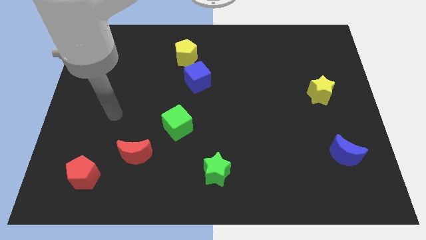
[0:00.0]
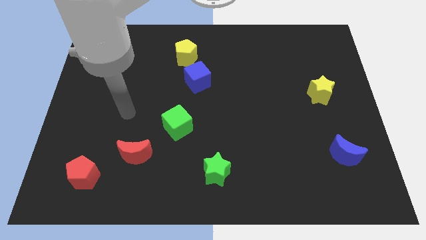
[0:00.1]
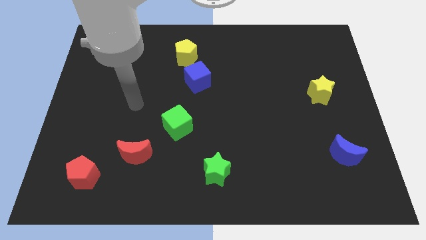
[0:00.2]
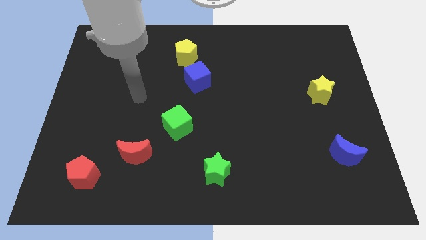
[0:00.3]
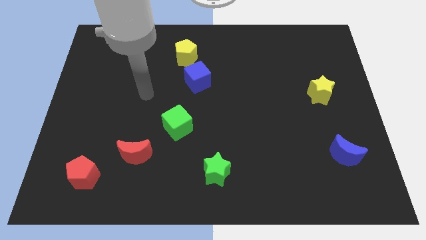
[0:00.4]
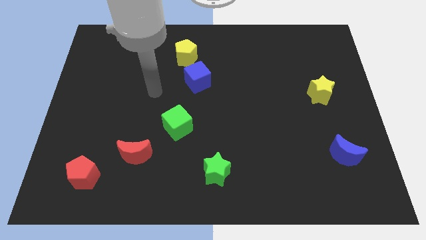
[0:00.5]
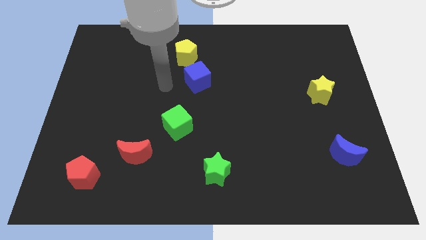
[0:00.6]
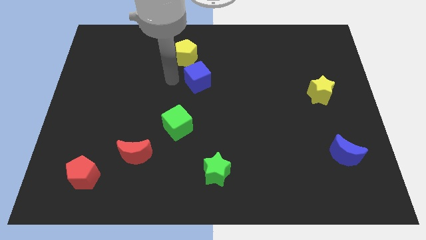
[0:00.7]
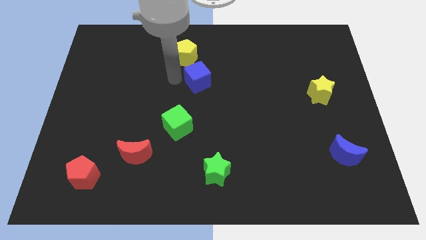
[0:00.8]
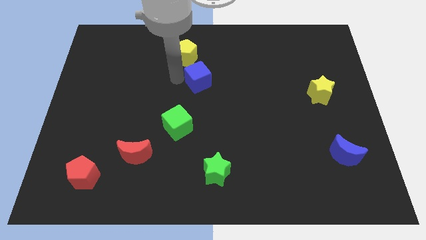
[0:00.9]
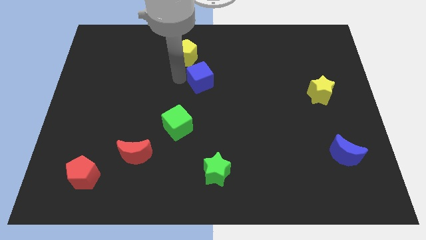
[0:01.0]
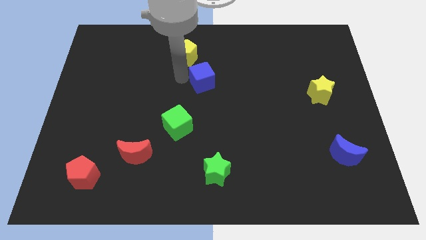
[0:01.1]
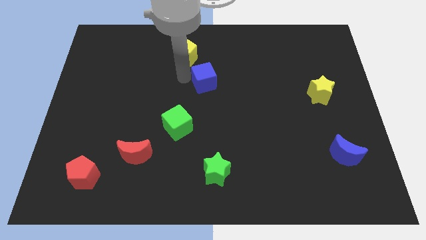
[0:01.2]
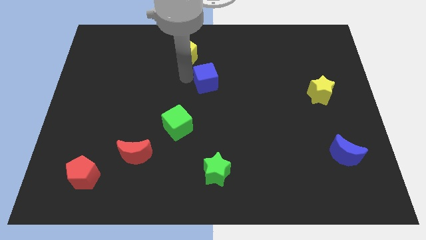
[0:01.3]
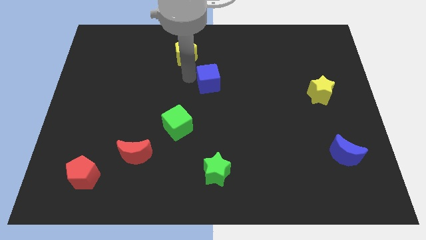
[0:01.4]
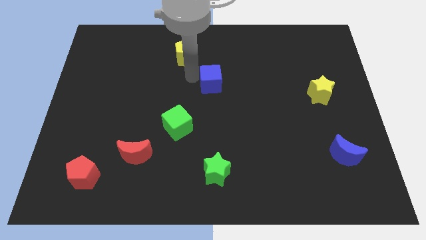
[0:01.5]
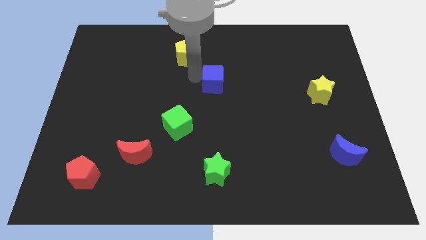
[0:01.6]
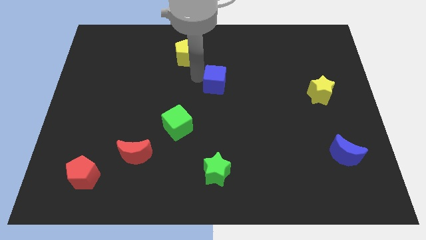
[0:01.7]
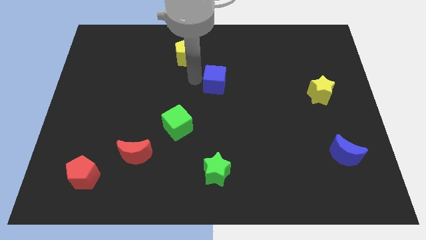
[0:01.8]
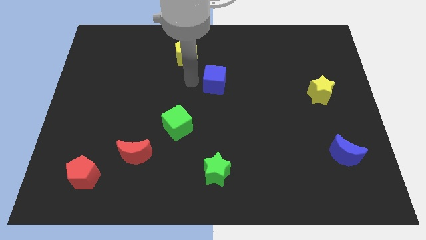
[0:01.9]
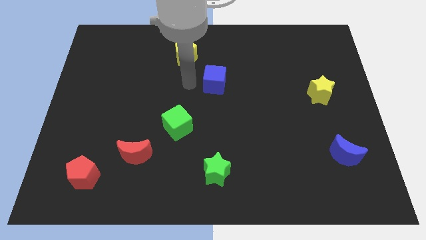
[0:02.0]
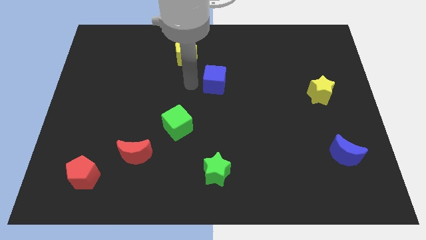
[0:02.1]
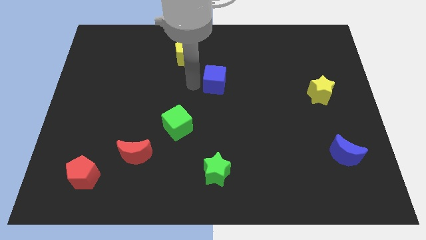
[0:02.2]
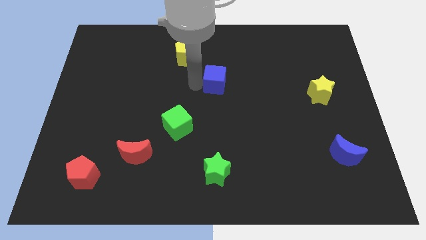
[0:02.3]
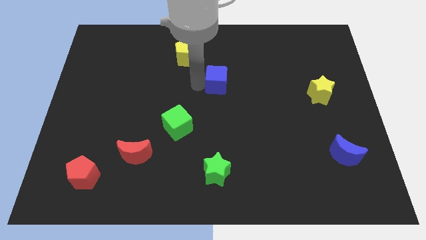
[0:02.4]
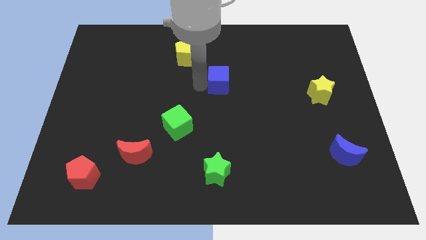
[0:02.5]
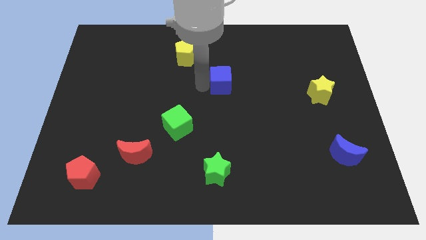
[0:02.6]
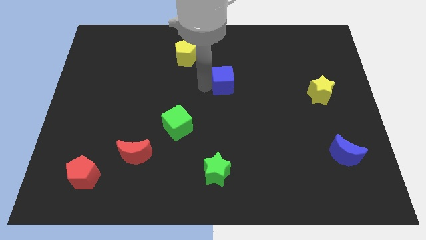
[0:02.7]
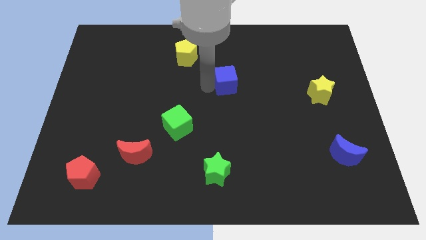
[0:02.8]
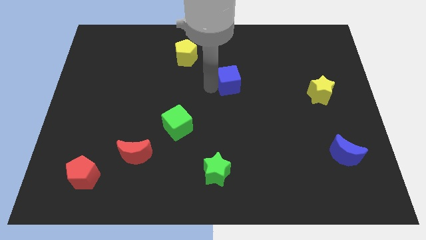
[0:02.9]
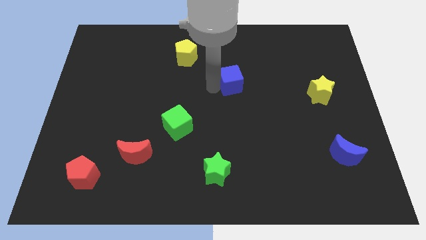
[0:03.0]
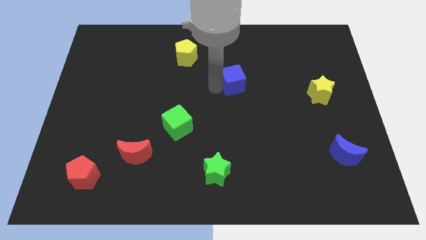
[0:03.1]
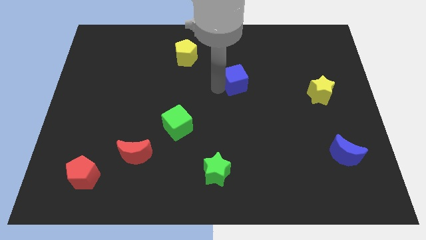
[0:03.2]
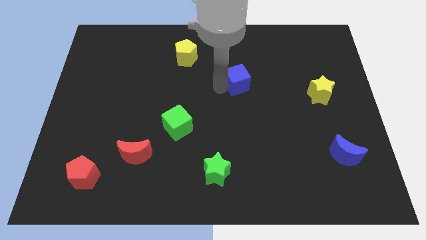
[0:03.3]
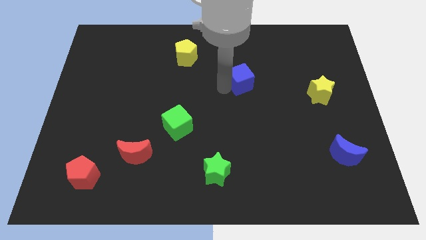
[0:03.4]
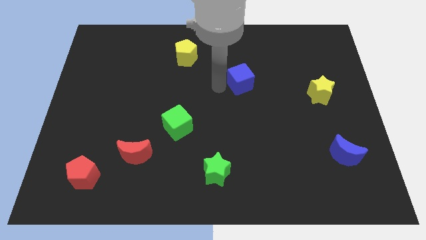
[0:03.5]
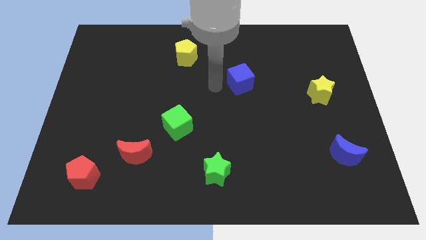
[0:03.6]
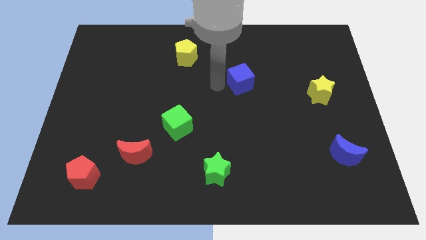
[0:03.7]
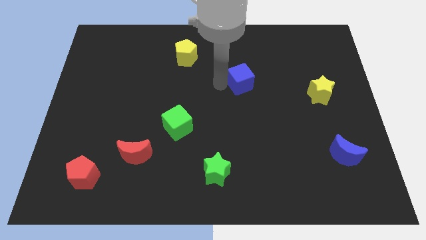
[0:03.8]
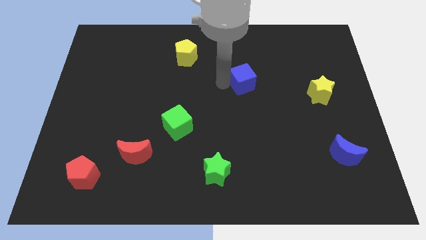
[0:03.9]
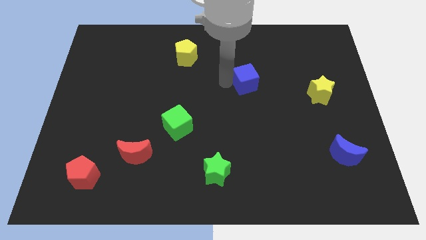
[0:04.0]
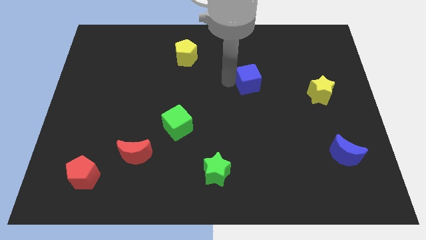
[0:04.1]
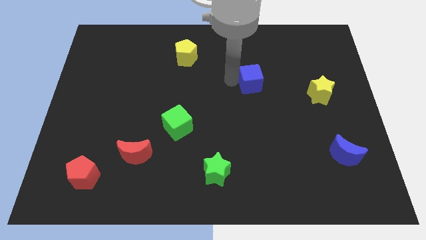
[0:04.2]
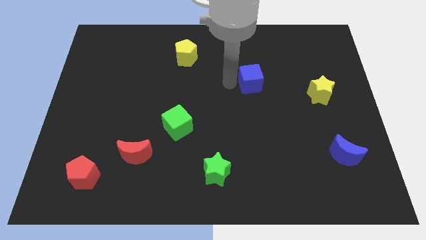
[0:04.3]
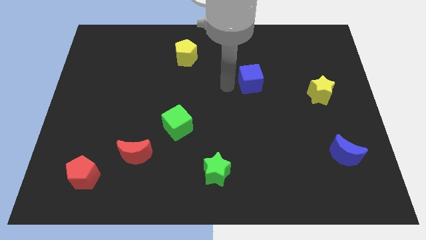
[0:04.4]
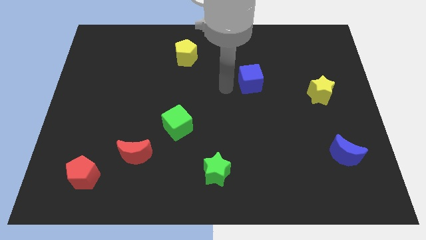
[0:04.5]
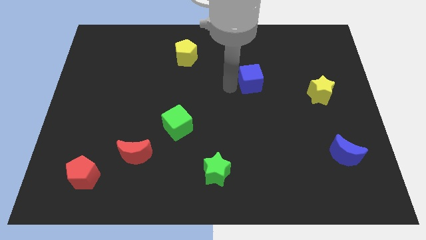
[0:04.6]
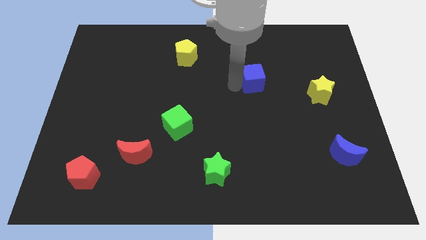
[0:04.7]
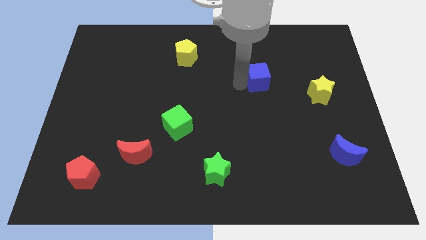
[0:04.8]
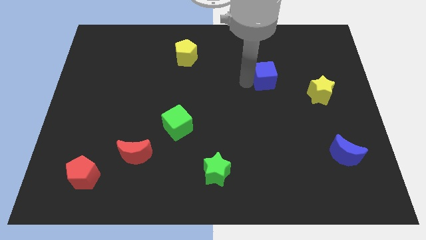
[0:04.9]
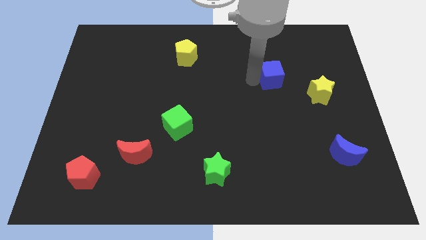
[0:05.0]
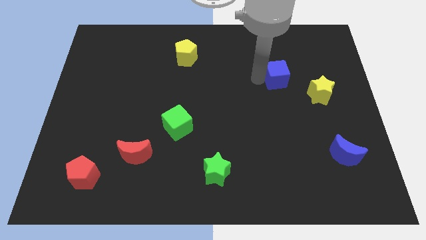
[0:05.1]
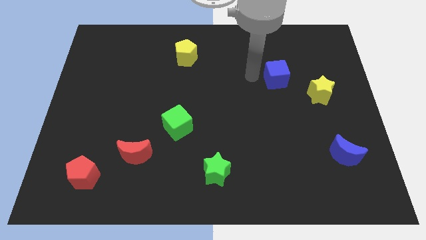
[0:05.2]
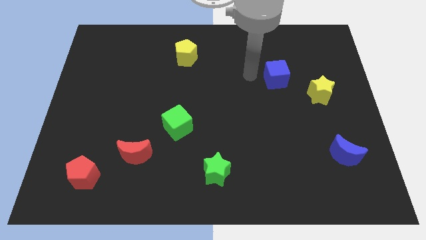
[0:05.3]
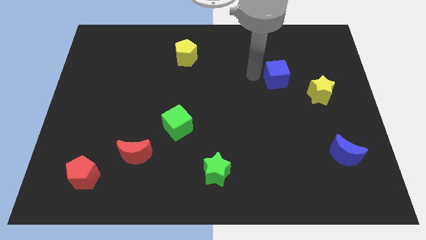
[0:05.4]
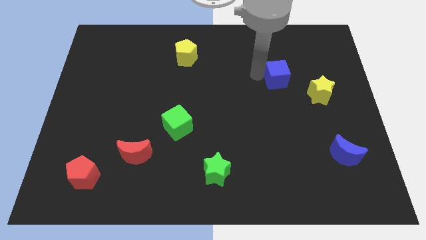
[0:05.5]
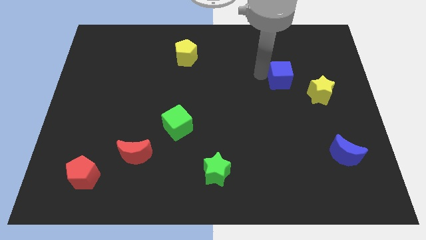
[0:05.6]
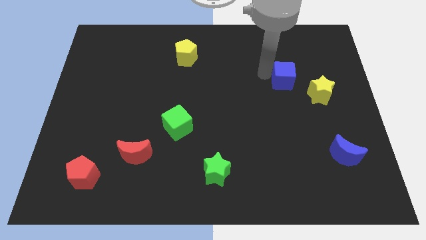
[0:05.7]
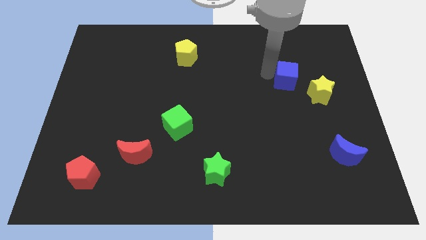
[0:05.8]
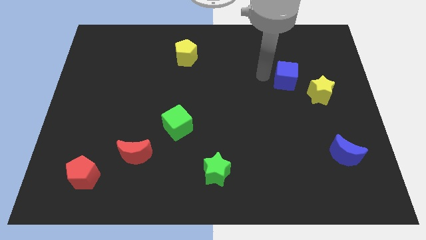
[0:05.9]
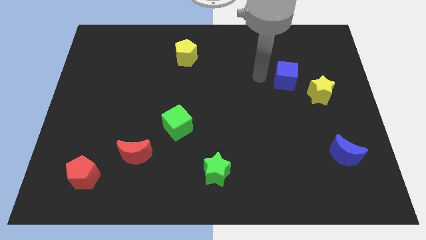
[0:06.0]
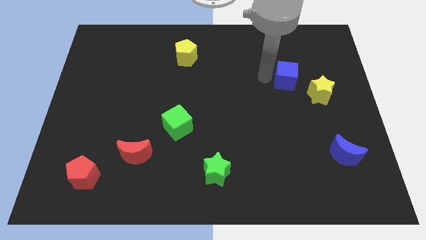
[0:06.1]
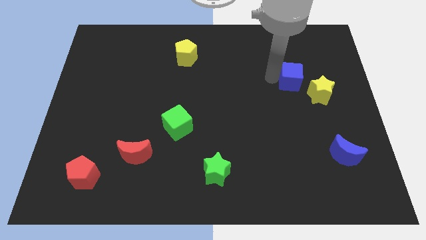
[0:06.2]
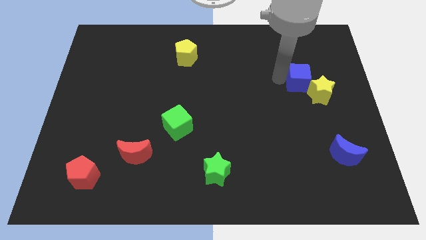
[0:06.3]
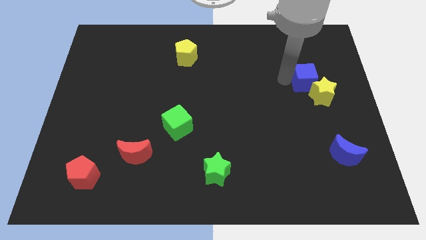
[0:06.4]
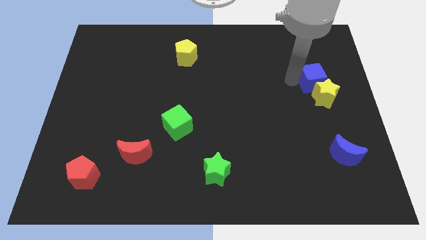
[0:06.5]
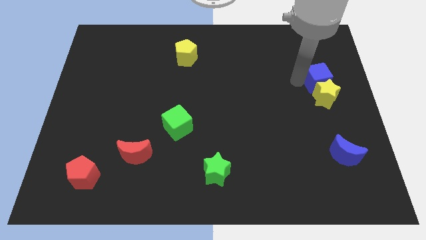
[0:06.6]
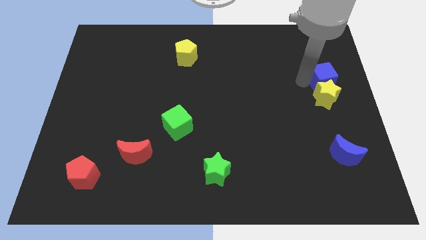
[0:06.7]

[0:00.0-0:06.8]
push the blue cube to the right side of the board
